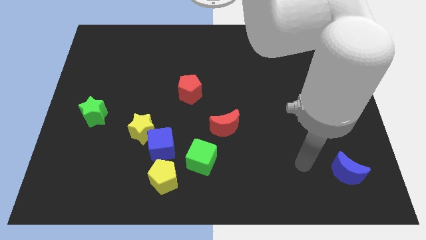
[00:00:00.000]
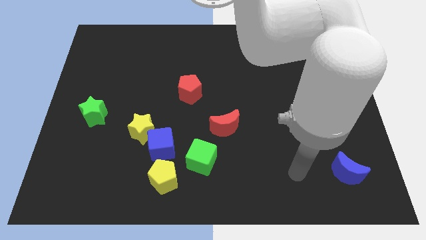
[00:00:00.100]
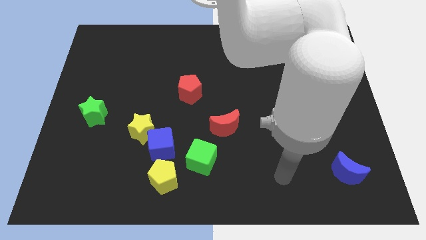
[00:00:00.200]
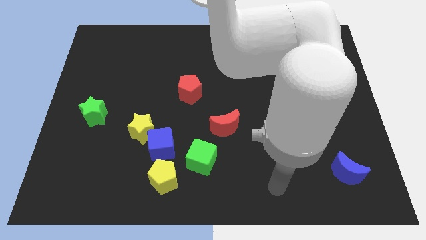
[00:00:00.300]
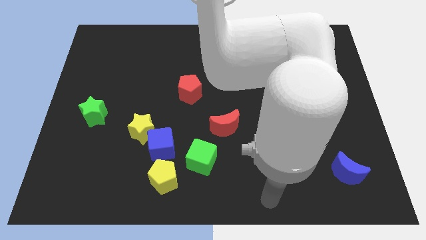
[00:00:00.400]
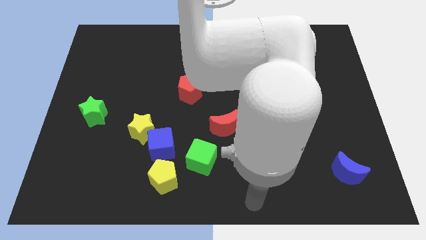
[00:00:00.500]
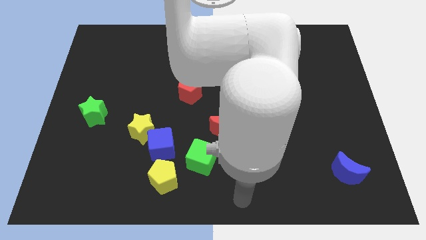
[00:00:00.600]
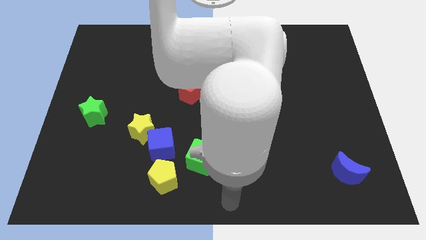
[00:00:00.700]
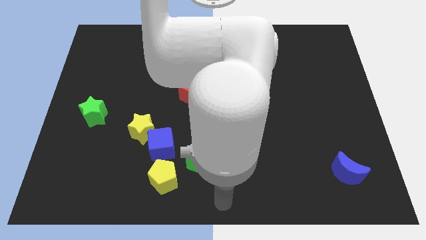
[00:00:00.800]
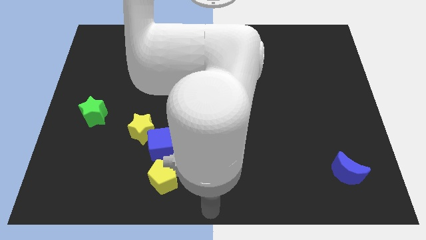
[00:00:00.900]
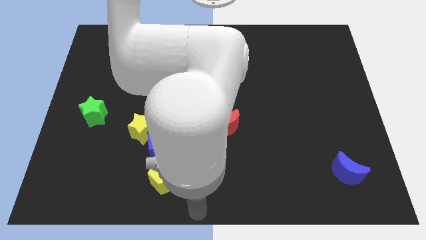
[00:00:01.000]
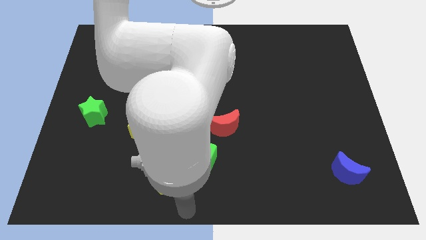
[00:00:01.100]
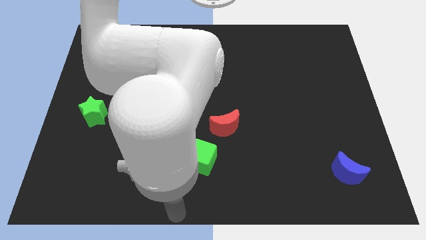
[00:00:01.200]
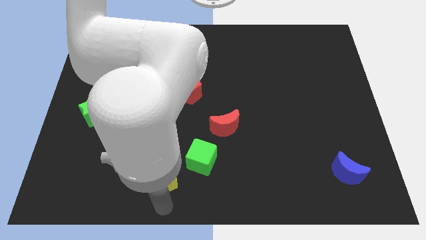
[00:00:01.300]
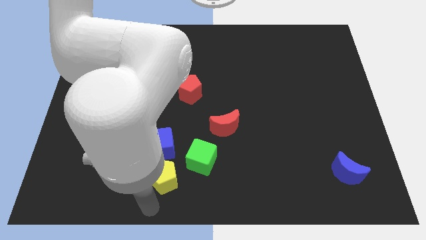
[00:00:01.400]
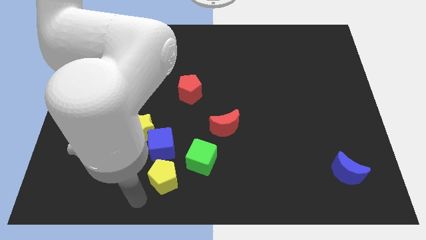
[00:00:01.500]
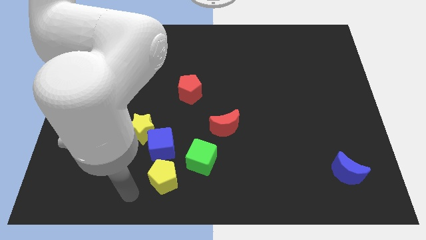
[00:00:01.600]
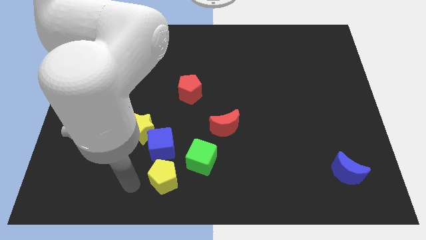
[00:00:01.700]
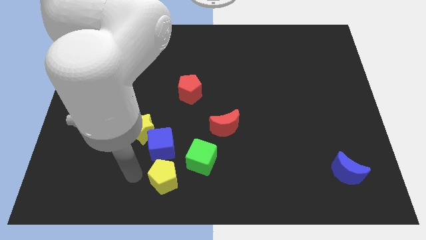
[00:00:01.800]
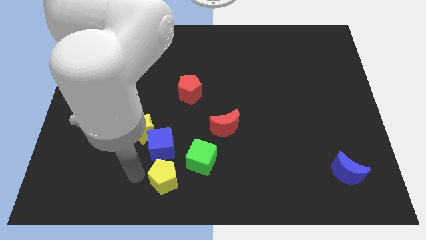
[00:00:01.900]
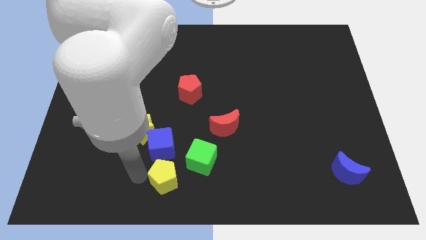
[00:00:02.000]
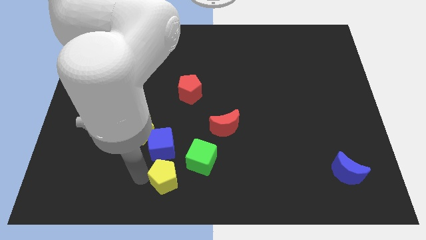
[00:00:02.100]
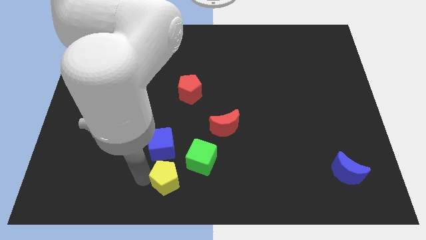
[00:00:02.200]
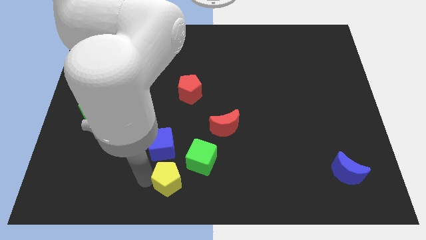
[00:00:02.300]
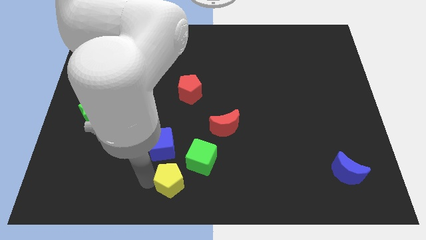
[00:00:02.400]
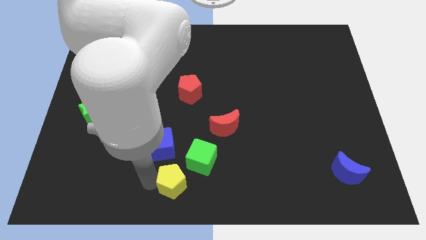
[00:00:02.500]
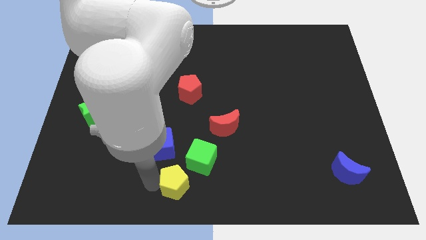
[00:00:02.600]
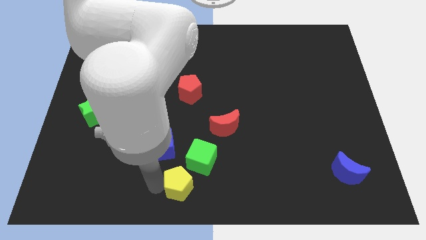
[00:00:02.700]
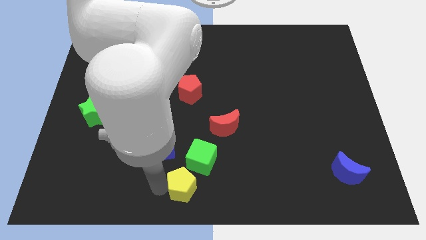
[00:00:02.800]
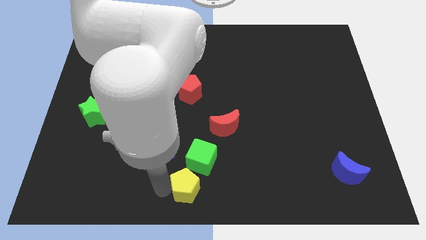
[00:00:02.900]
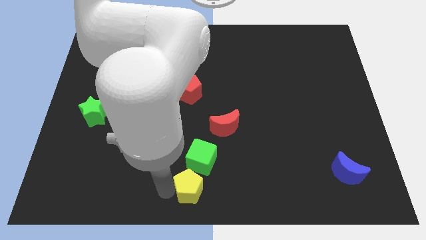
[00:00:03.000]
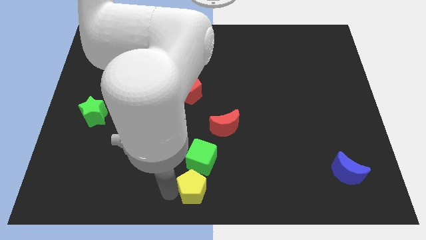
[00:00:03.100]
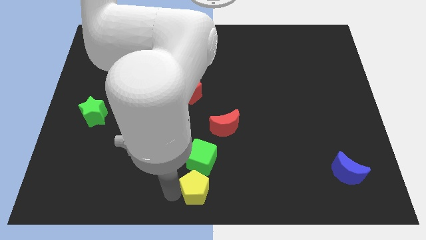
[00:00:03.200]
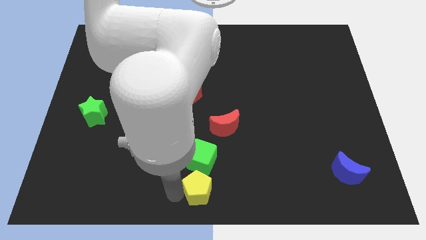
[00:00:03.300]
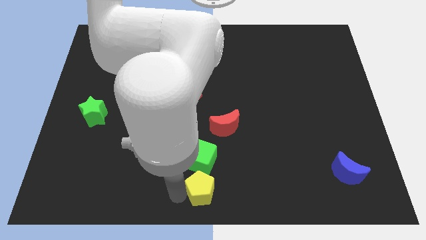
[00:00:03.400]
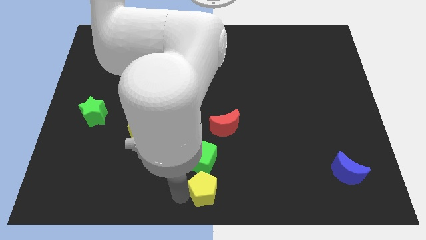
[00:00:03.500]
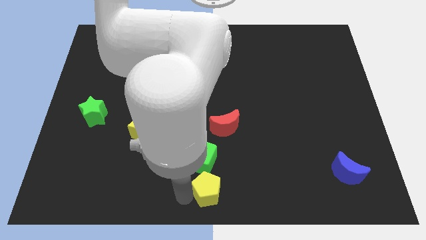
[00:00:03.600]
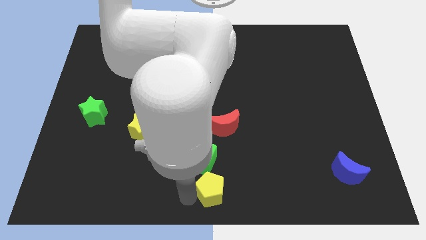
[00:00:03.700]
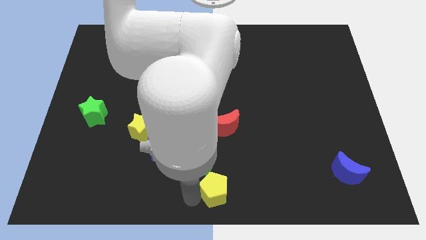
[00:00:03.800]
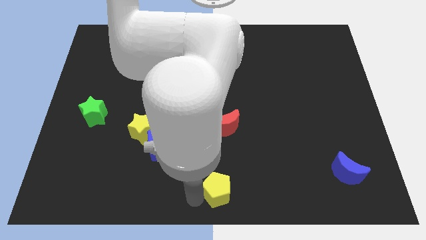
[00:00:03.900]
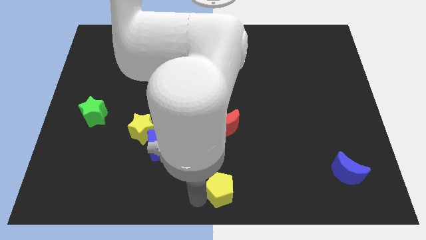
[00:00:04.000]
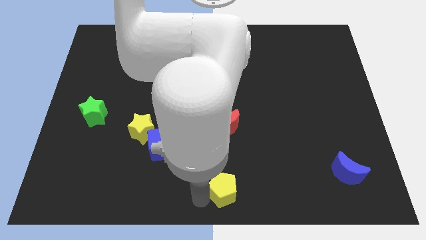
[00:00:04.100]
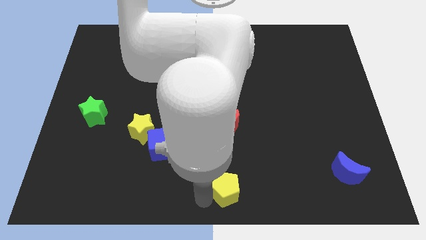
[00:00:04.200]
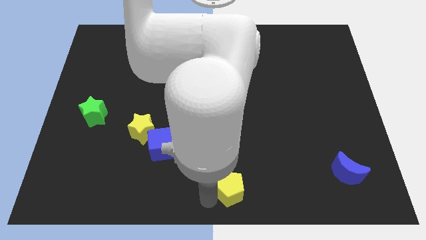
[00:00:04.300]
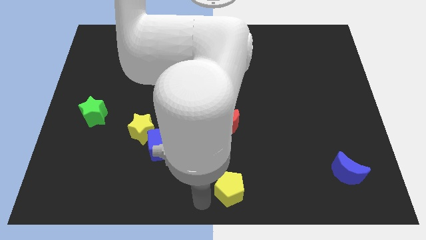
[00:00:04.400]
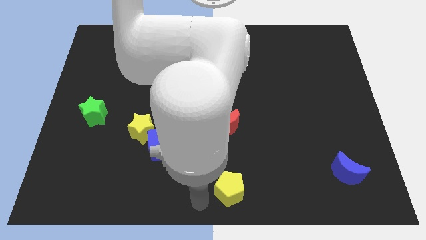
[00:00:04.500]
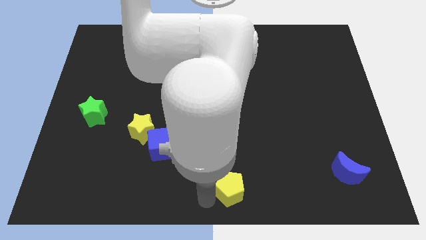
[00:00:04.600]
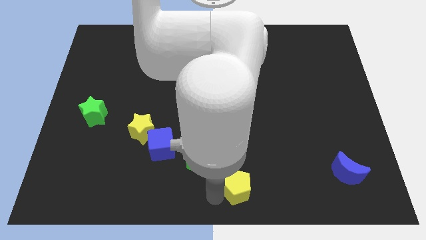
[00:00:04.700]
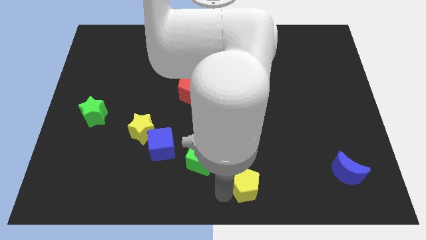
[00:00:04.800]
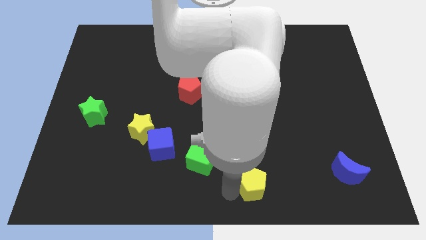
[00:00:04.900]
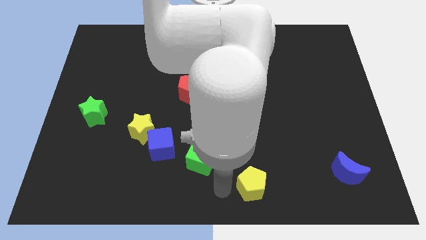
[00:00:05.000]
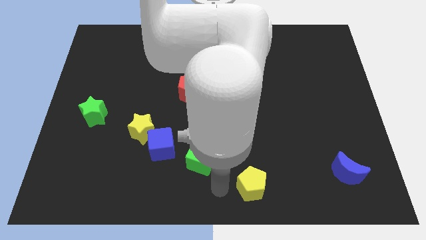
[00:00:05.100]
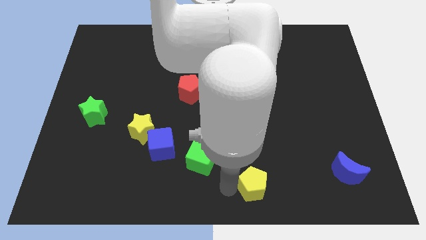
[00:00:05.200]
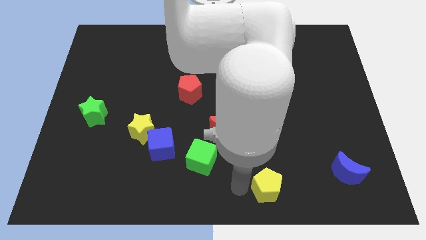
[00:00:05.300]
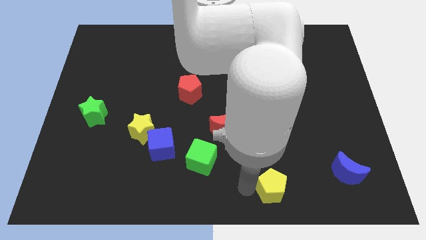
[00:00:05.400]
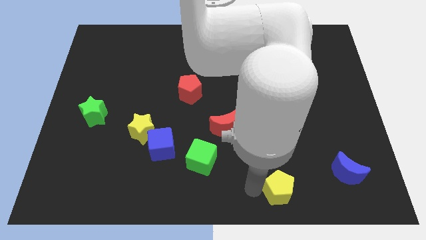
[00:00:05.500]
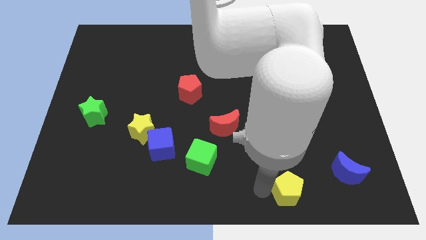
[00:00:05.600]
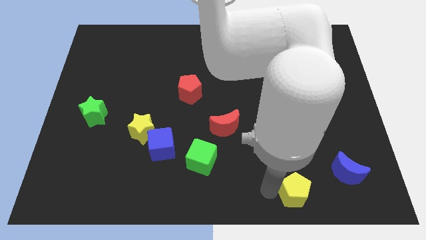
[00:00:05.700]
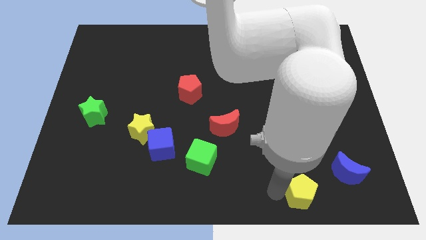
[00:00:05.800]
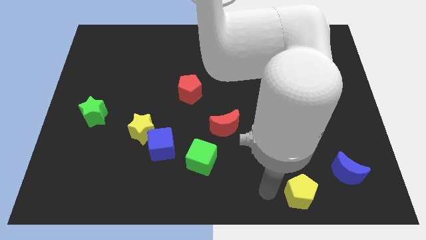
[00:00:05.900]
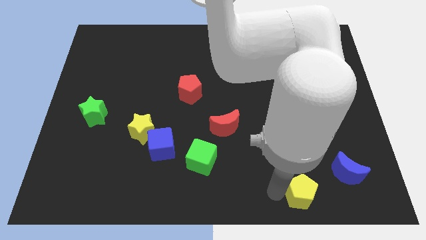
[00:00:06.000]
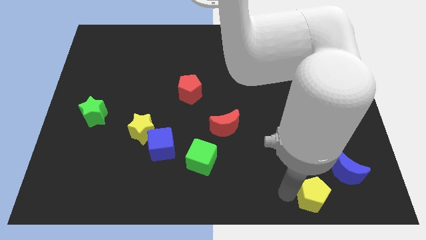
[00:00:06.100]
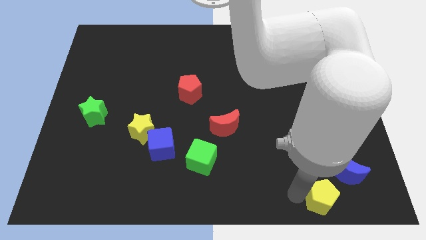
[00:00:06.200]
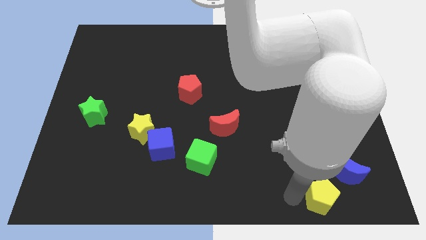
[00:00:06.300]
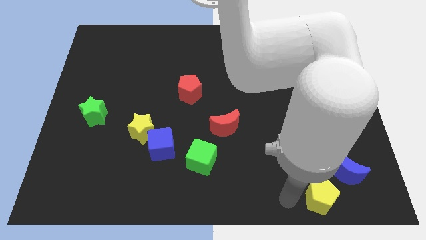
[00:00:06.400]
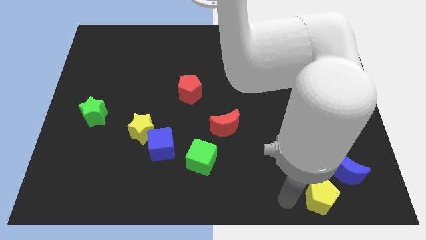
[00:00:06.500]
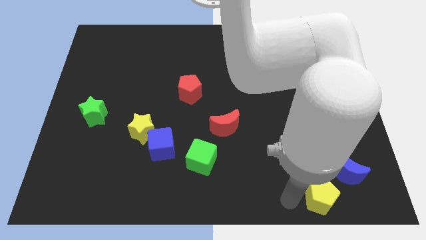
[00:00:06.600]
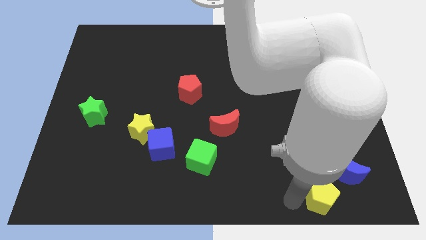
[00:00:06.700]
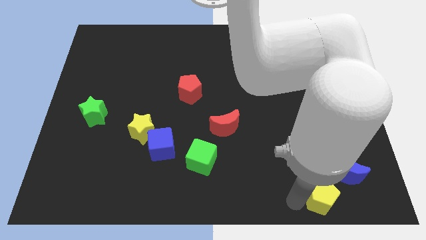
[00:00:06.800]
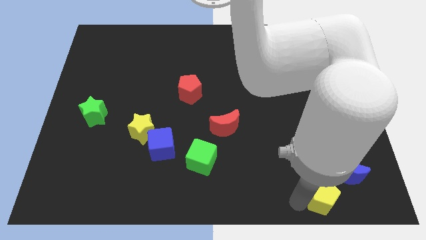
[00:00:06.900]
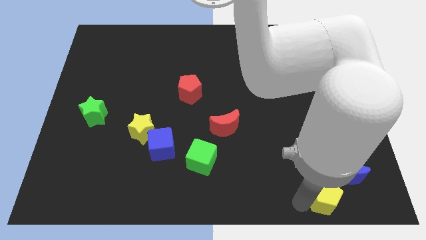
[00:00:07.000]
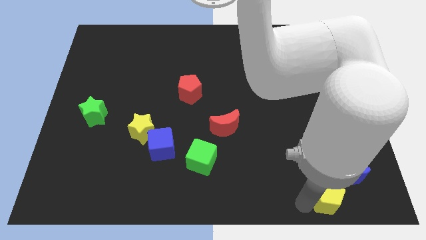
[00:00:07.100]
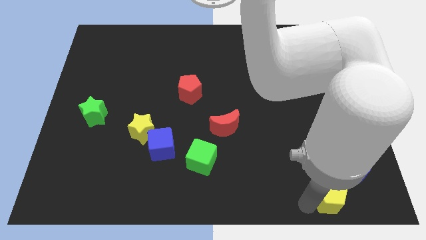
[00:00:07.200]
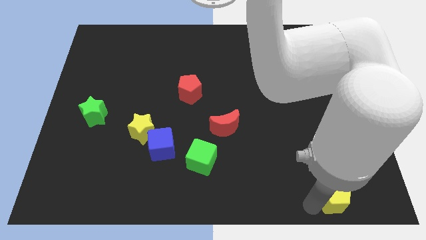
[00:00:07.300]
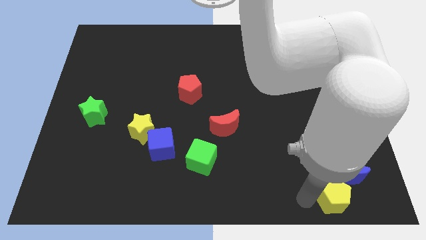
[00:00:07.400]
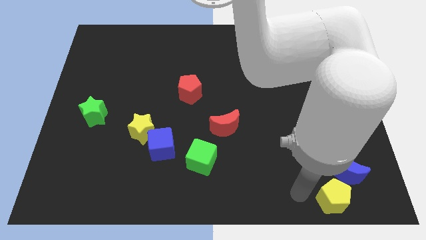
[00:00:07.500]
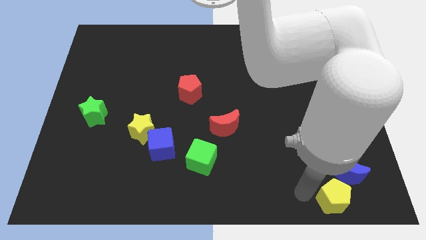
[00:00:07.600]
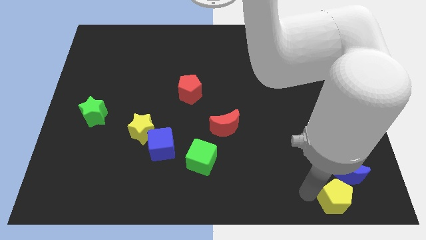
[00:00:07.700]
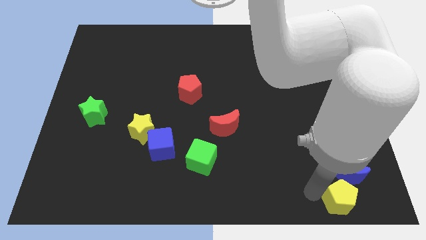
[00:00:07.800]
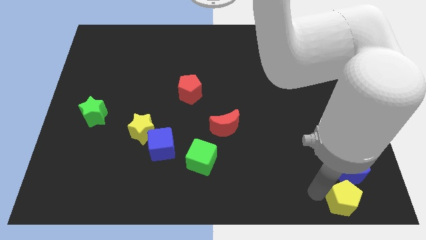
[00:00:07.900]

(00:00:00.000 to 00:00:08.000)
slide the yellow pentagon to the bottom right
